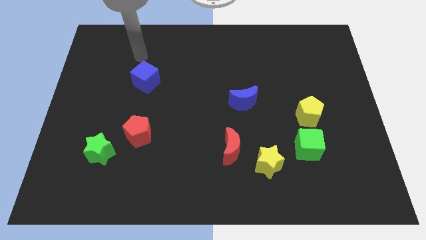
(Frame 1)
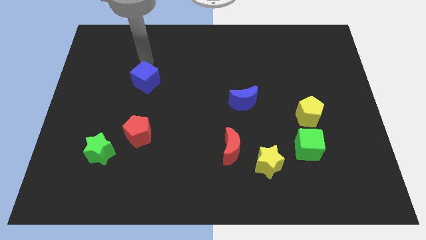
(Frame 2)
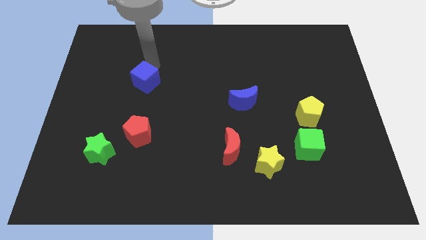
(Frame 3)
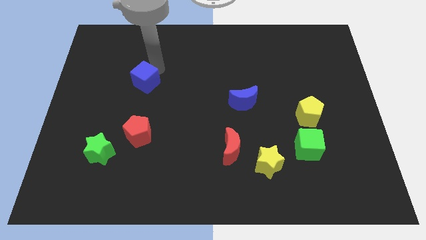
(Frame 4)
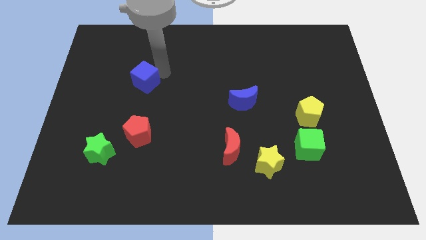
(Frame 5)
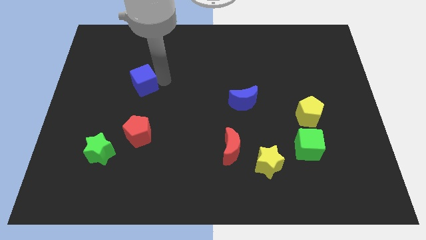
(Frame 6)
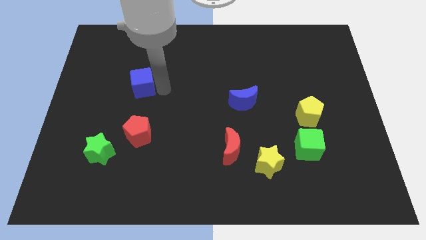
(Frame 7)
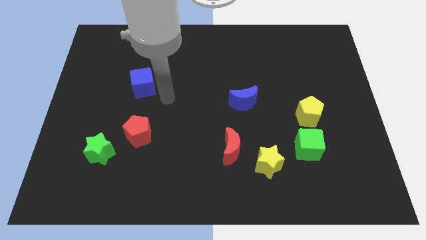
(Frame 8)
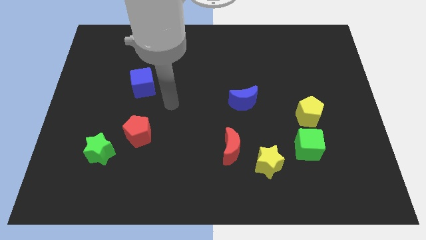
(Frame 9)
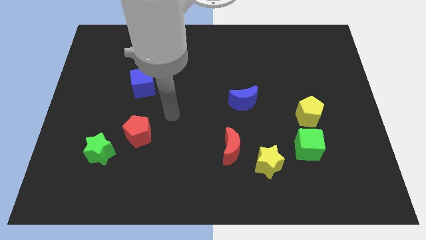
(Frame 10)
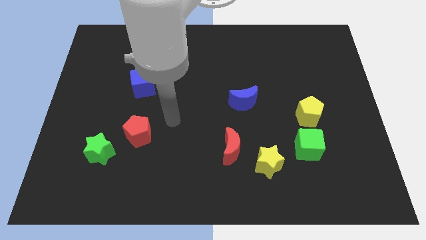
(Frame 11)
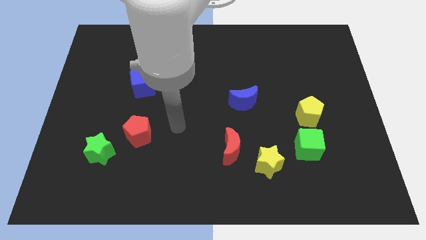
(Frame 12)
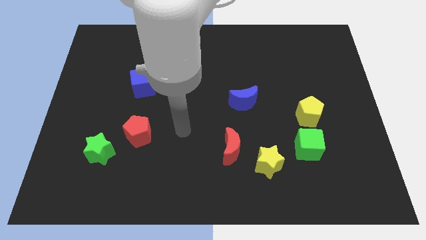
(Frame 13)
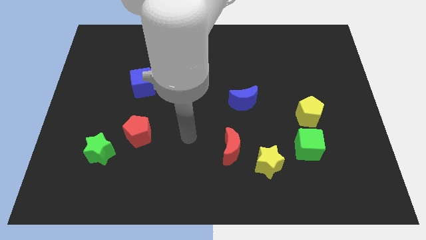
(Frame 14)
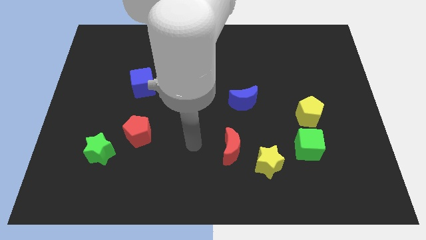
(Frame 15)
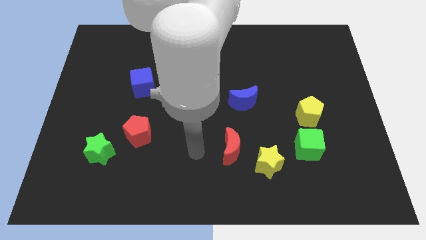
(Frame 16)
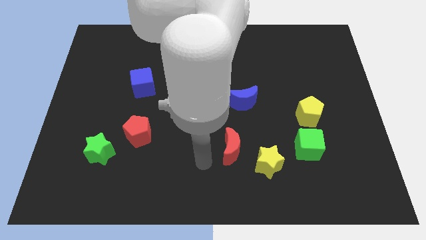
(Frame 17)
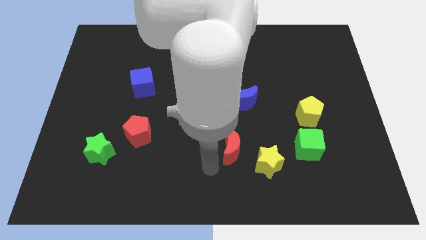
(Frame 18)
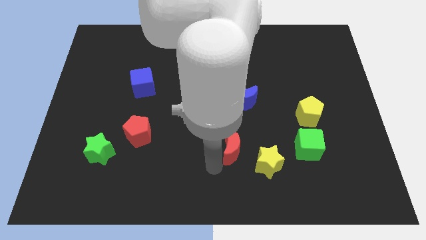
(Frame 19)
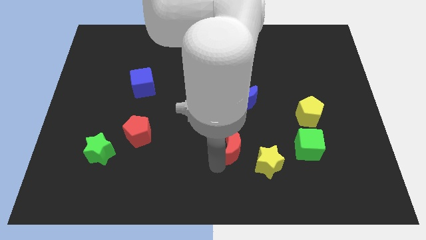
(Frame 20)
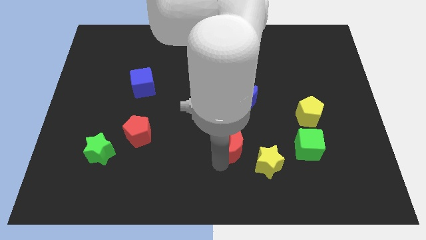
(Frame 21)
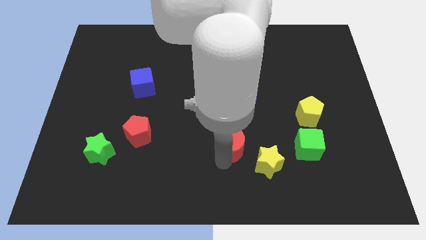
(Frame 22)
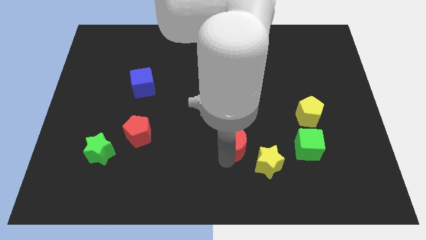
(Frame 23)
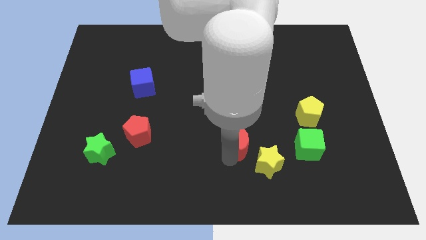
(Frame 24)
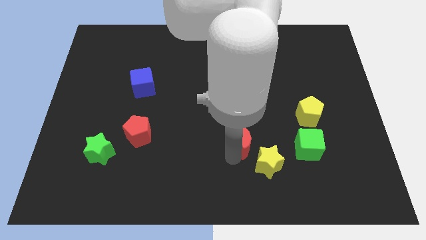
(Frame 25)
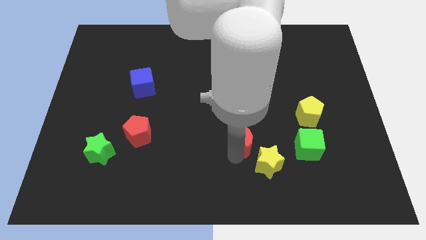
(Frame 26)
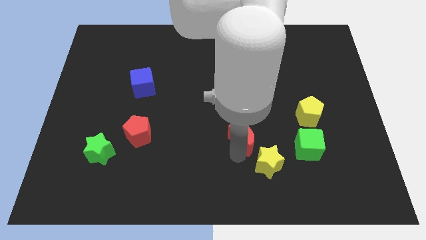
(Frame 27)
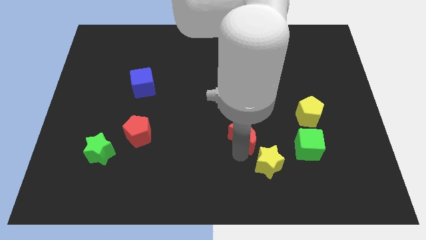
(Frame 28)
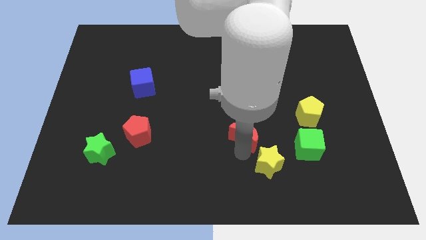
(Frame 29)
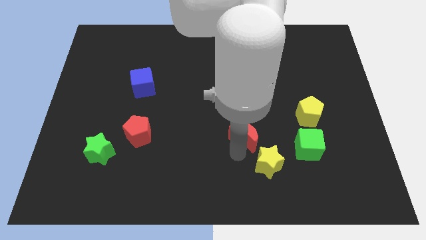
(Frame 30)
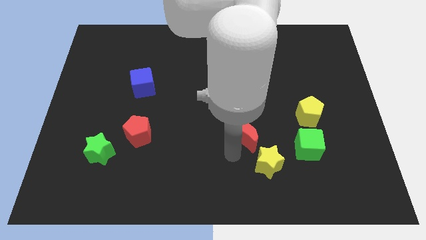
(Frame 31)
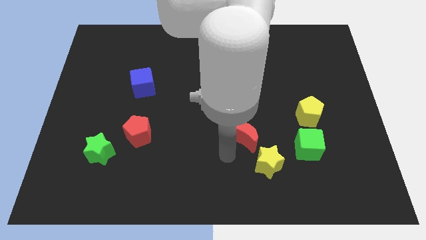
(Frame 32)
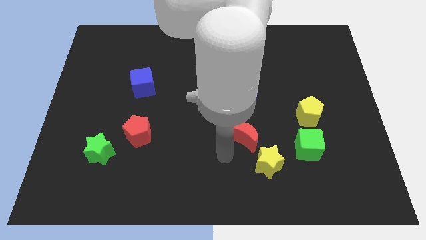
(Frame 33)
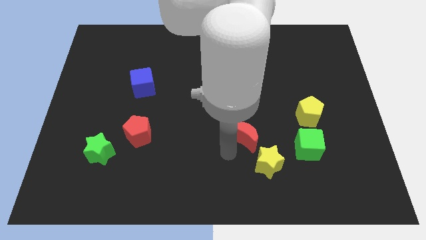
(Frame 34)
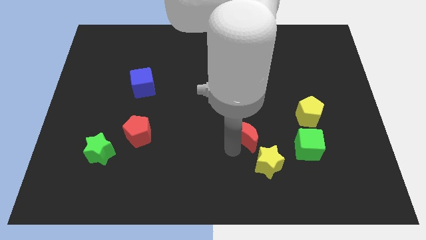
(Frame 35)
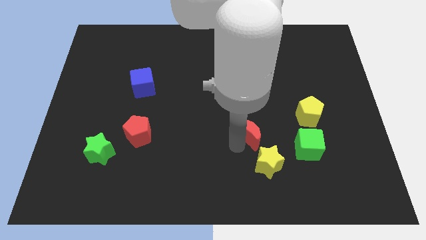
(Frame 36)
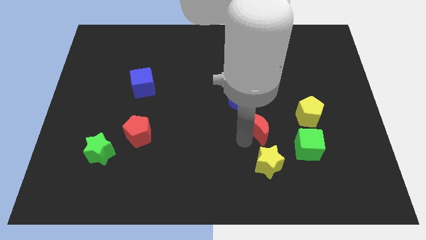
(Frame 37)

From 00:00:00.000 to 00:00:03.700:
push the red moon up and then to the right slightly

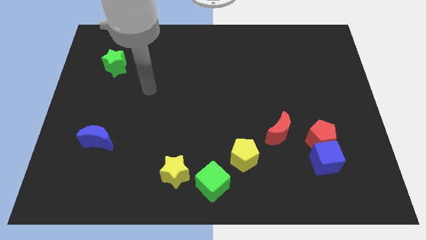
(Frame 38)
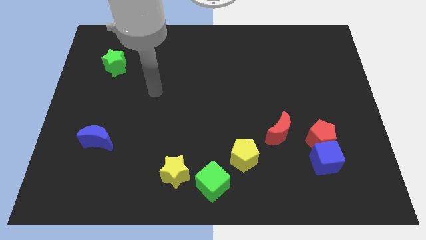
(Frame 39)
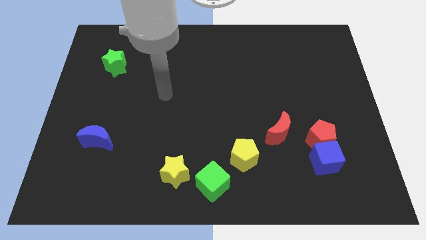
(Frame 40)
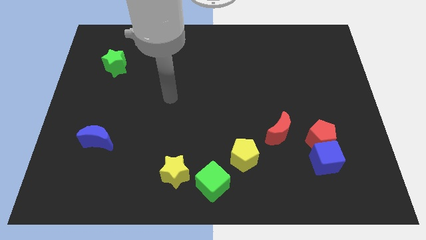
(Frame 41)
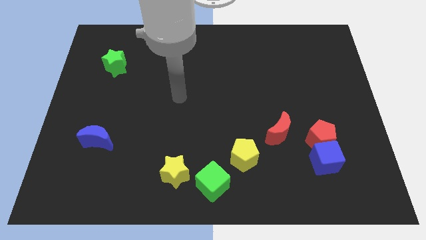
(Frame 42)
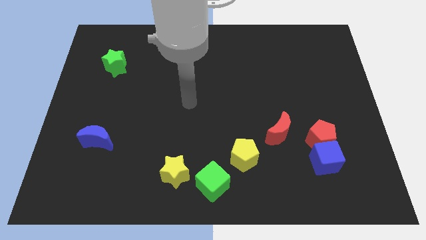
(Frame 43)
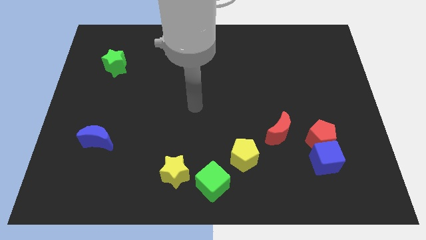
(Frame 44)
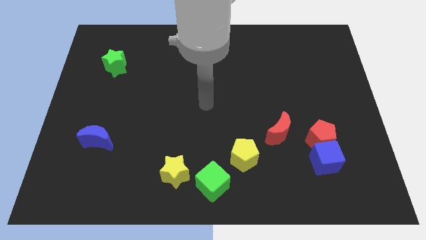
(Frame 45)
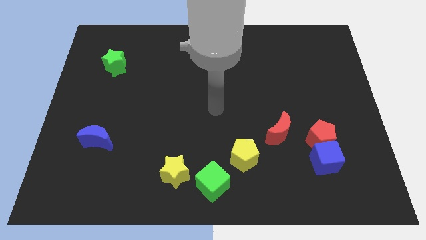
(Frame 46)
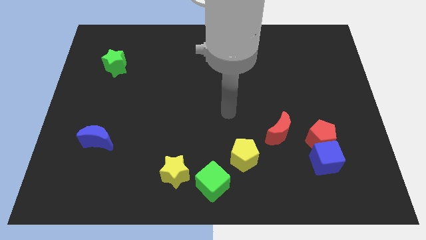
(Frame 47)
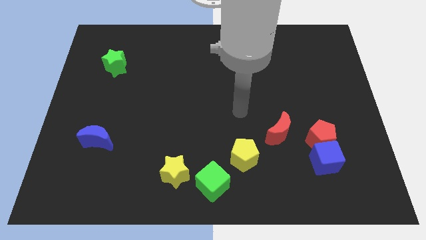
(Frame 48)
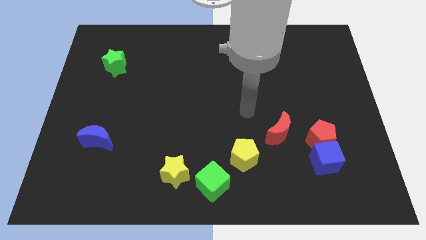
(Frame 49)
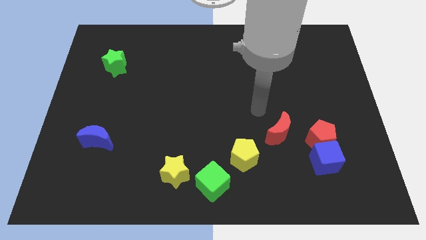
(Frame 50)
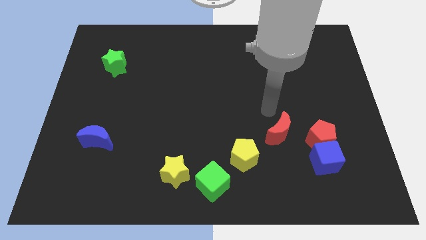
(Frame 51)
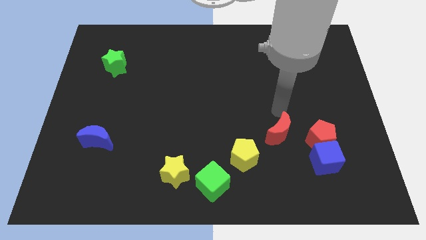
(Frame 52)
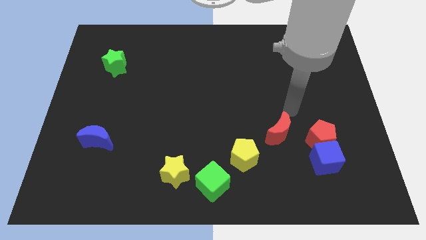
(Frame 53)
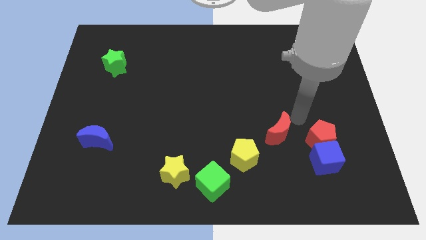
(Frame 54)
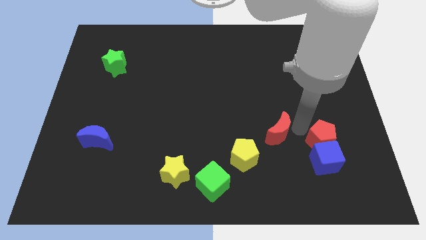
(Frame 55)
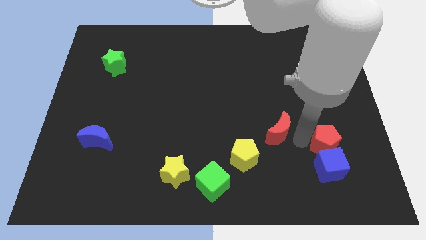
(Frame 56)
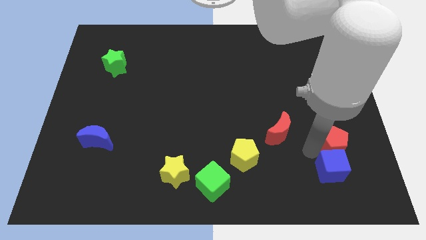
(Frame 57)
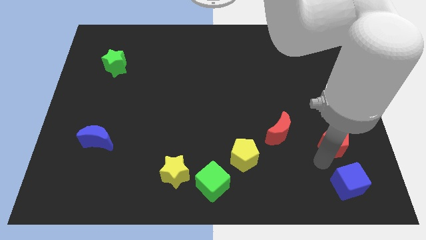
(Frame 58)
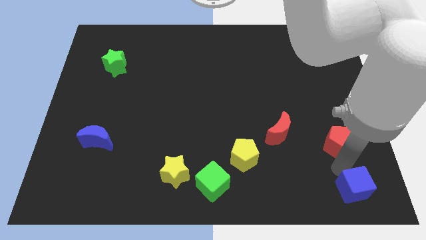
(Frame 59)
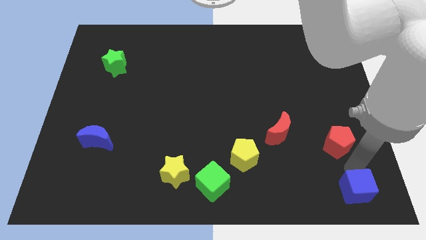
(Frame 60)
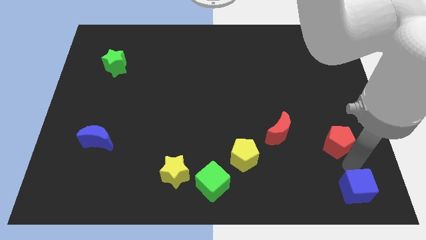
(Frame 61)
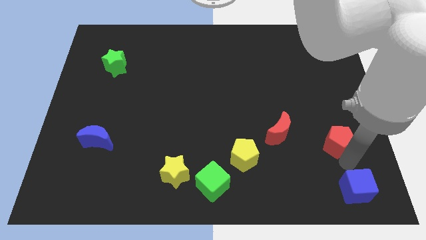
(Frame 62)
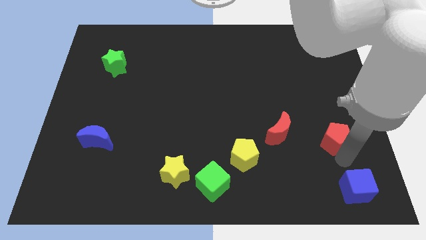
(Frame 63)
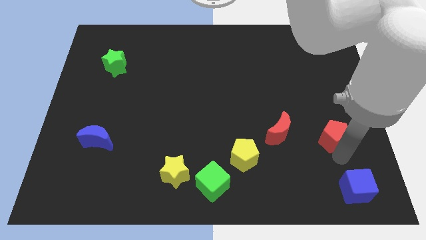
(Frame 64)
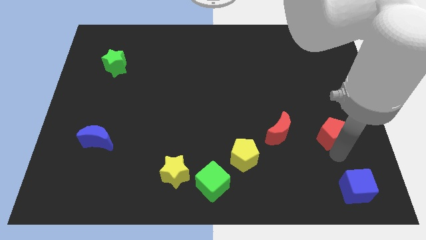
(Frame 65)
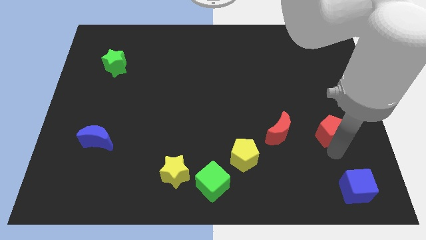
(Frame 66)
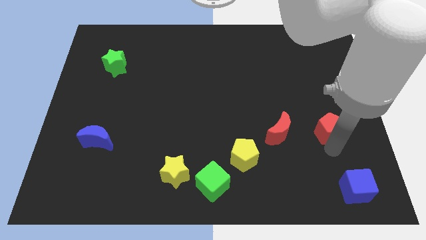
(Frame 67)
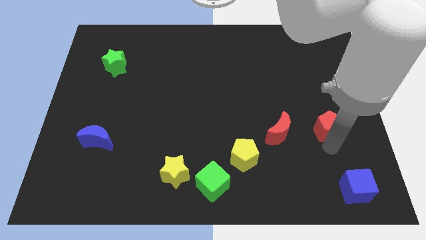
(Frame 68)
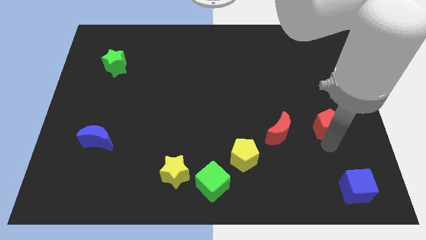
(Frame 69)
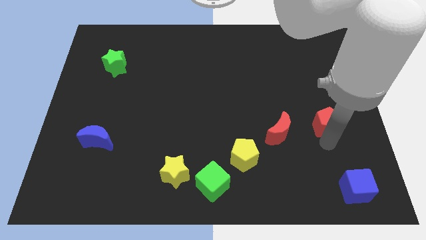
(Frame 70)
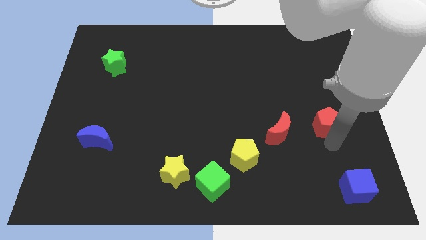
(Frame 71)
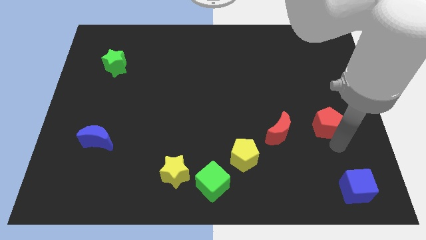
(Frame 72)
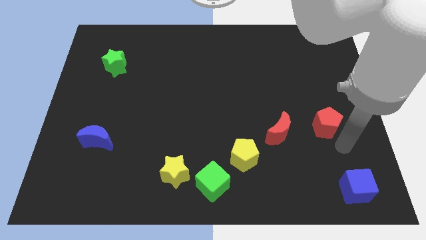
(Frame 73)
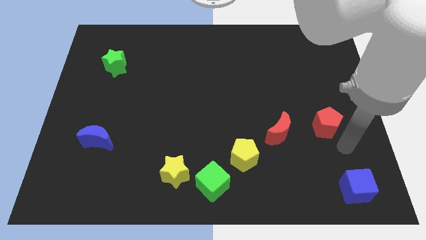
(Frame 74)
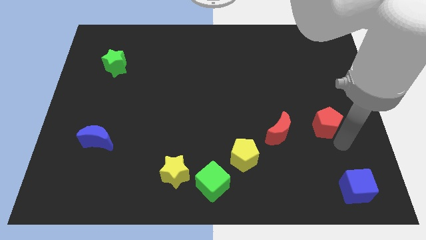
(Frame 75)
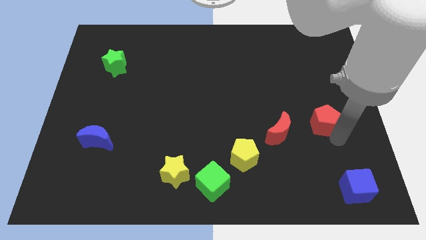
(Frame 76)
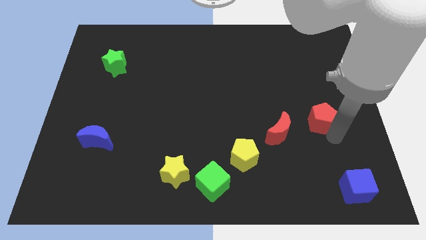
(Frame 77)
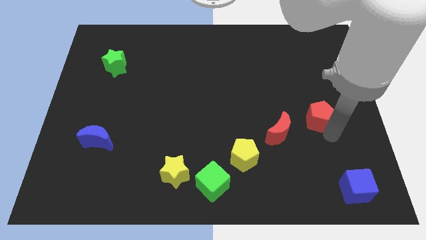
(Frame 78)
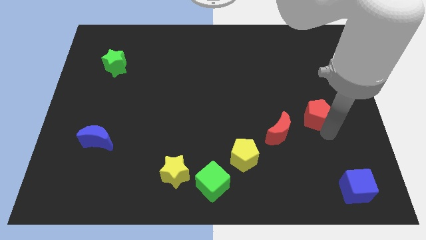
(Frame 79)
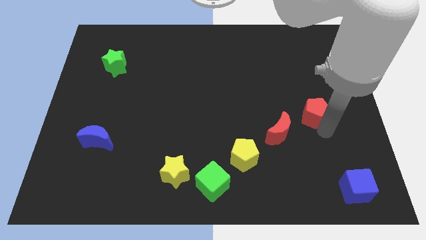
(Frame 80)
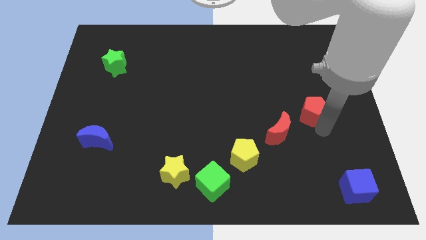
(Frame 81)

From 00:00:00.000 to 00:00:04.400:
slightly move the red pentagon upwards
